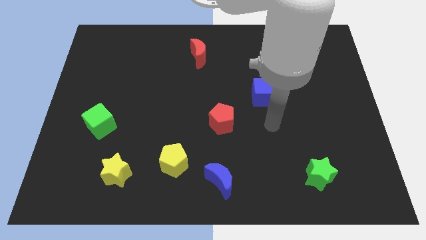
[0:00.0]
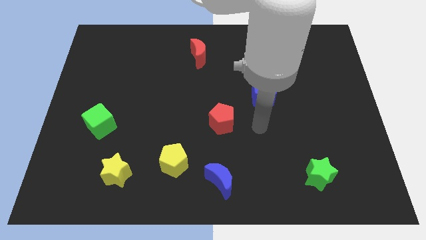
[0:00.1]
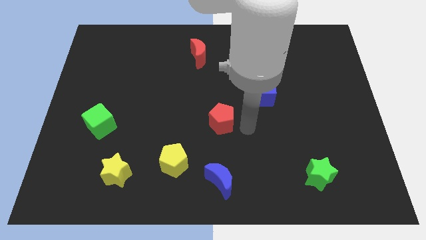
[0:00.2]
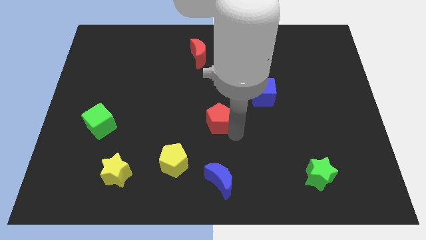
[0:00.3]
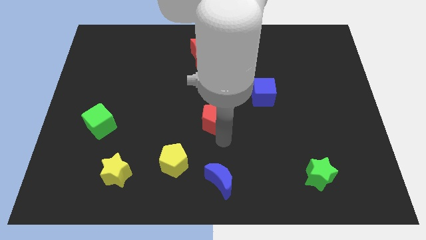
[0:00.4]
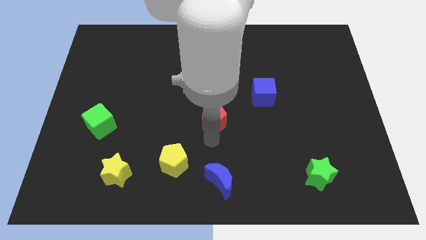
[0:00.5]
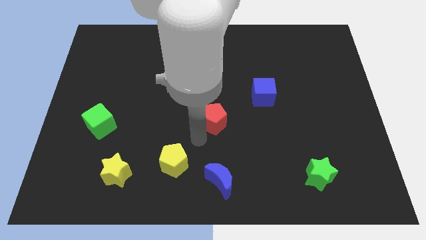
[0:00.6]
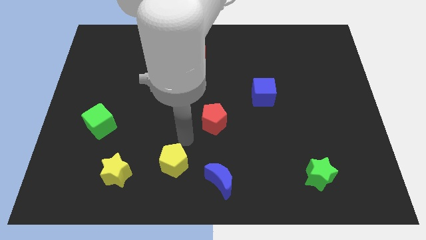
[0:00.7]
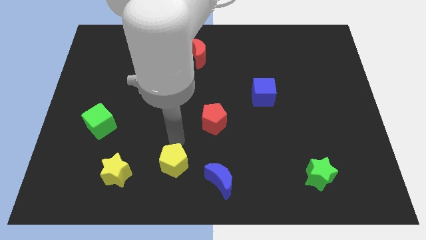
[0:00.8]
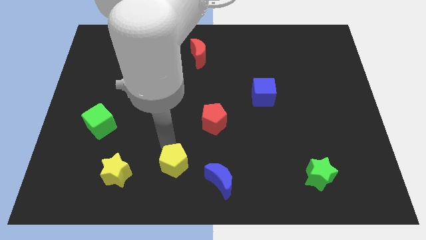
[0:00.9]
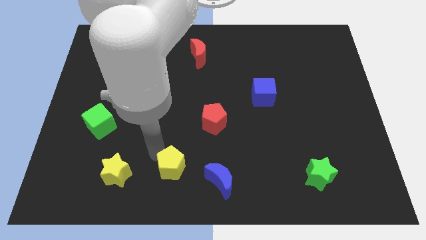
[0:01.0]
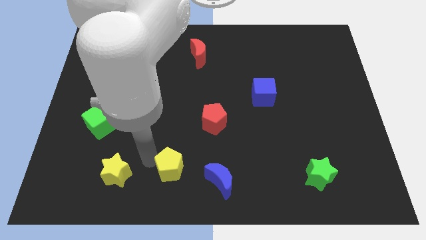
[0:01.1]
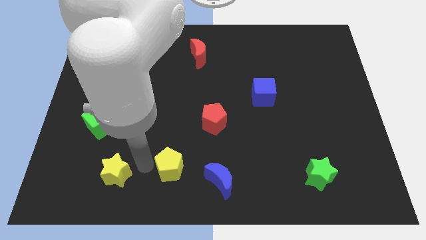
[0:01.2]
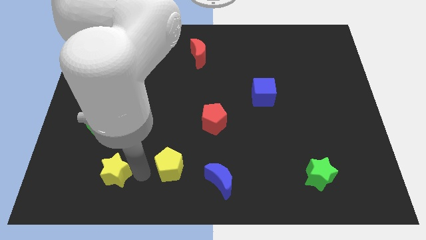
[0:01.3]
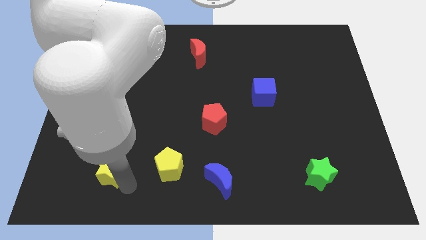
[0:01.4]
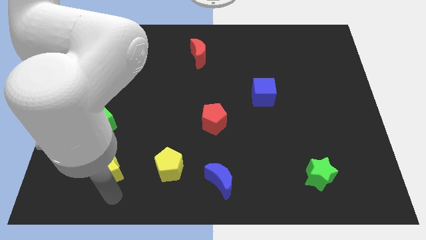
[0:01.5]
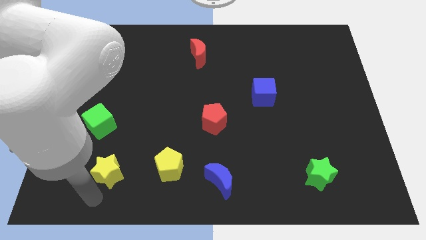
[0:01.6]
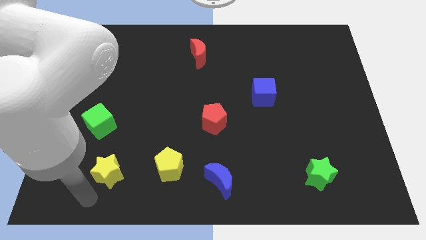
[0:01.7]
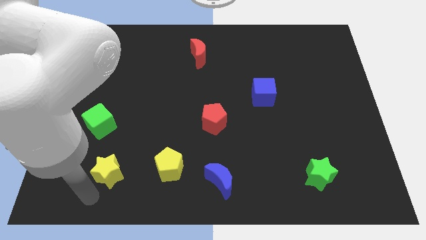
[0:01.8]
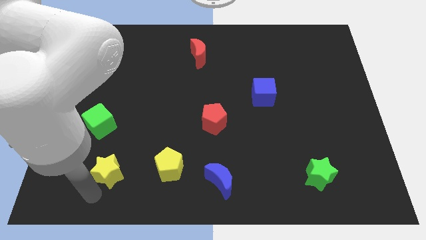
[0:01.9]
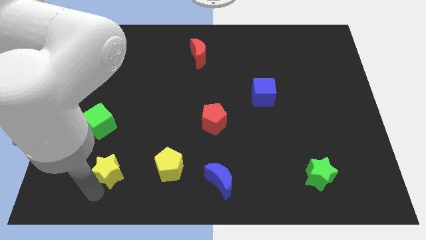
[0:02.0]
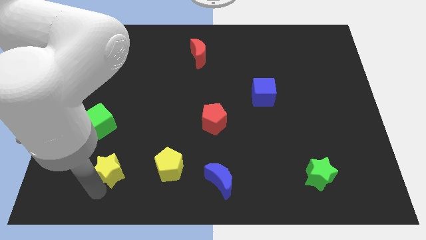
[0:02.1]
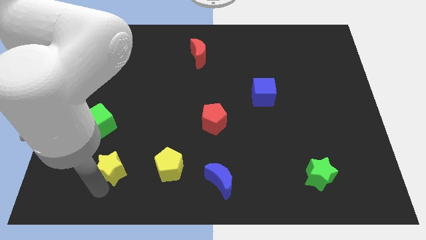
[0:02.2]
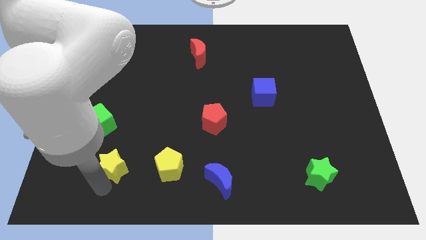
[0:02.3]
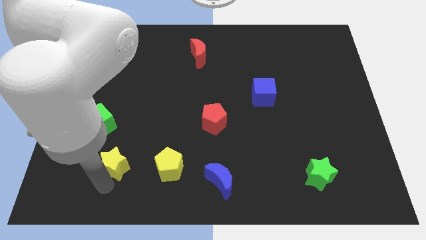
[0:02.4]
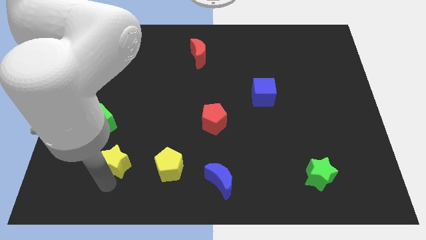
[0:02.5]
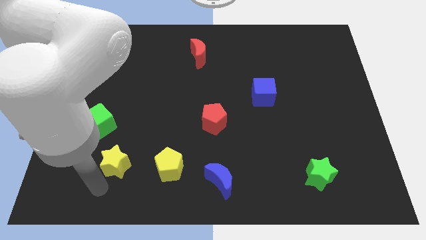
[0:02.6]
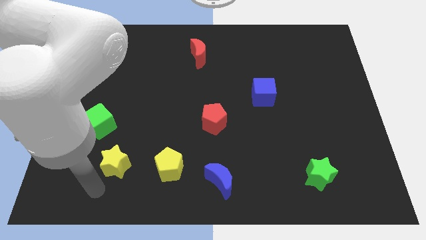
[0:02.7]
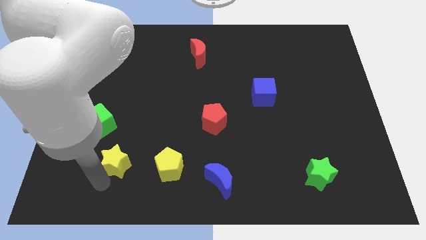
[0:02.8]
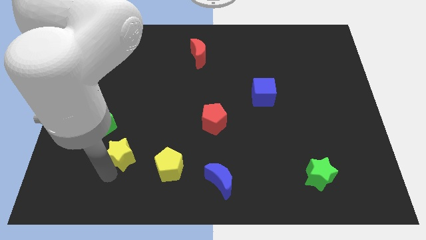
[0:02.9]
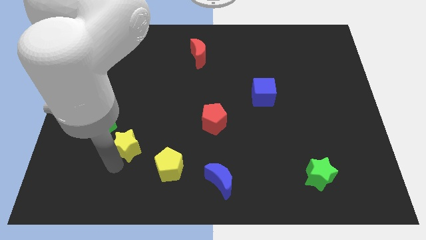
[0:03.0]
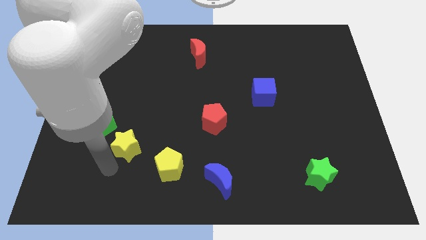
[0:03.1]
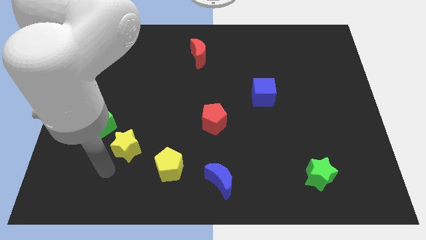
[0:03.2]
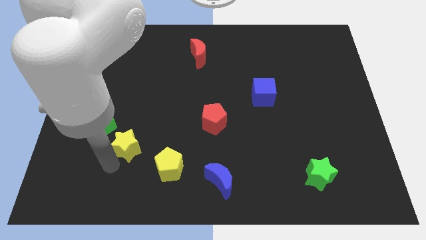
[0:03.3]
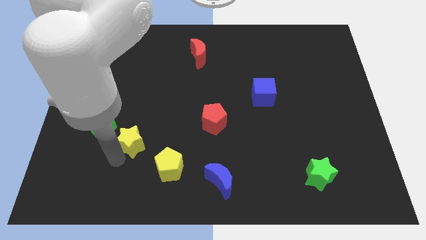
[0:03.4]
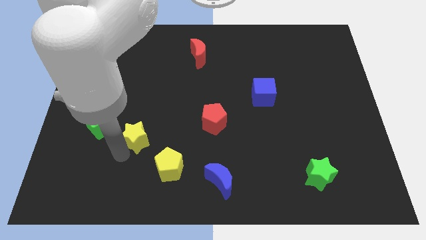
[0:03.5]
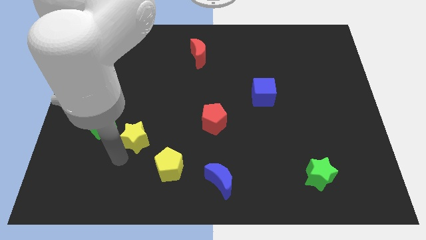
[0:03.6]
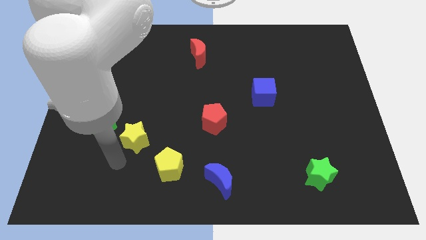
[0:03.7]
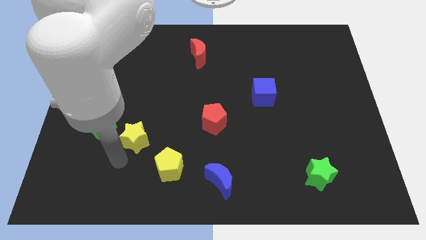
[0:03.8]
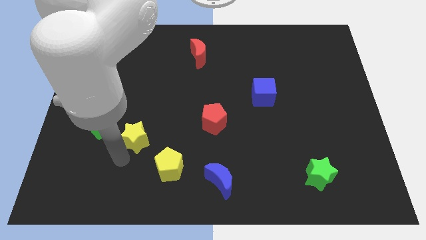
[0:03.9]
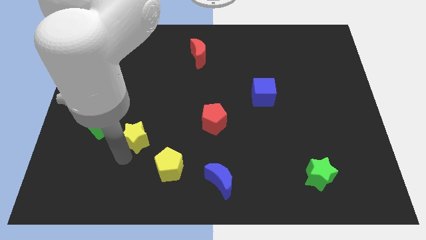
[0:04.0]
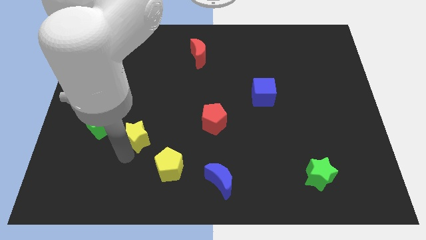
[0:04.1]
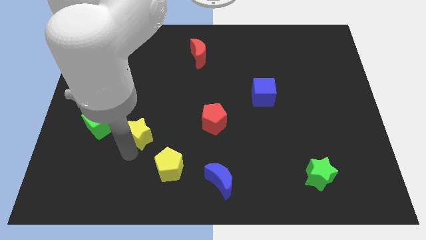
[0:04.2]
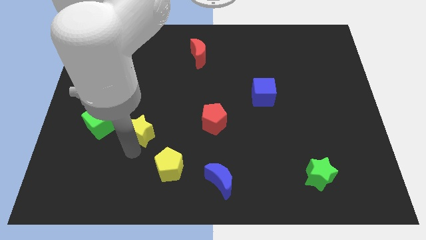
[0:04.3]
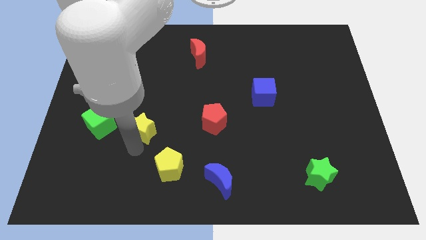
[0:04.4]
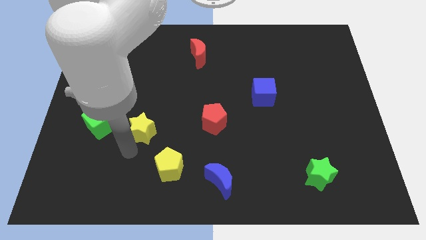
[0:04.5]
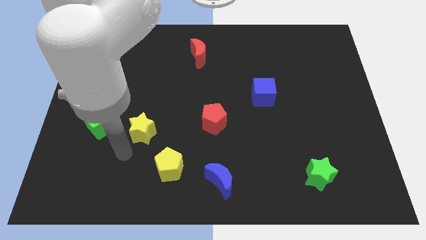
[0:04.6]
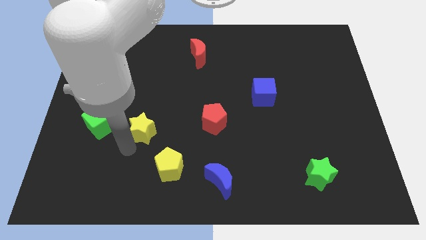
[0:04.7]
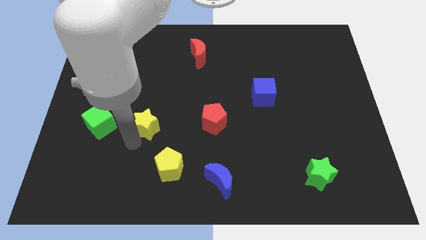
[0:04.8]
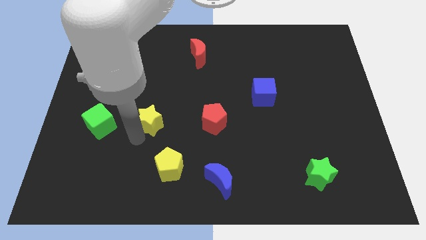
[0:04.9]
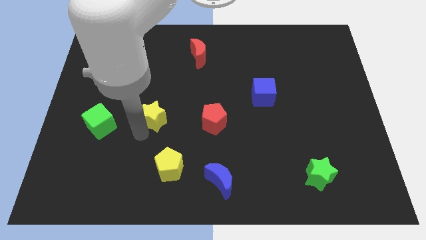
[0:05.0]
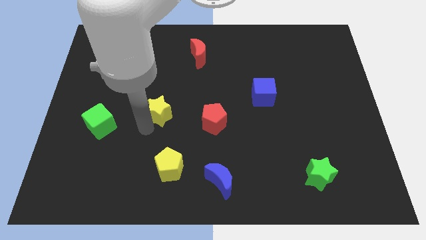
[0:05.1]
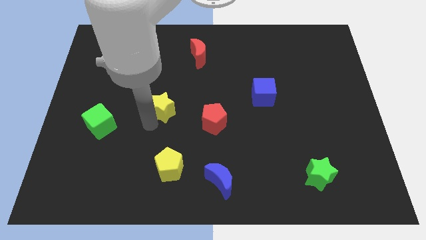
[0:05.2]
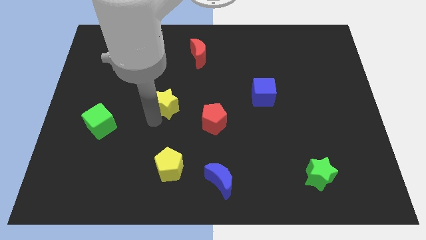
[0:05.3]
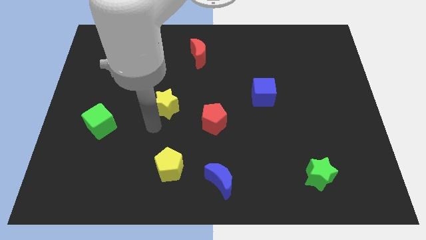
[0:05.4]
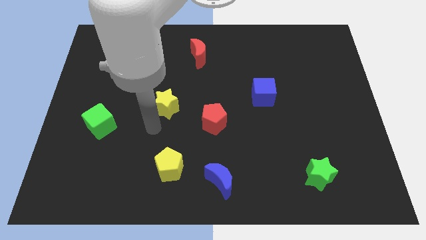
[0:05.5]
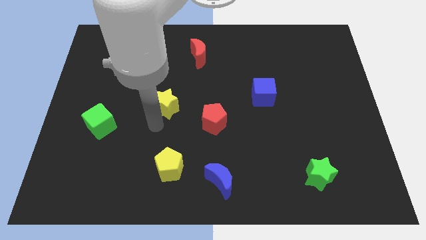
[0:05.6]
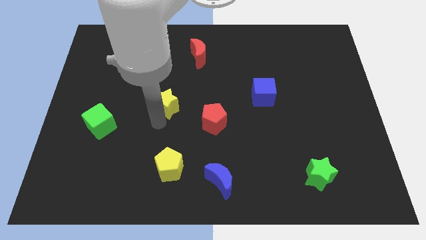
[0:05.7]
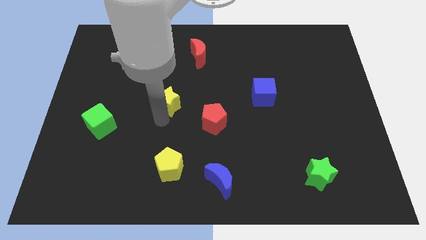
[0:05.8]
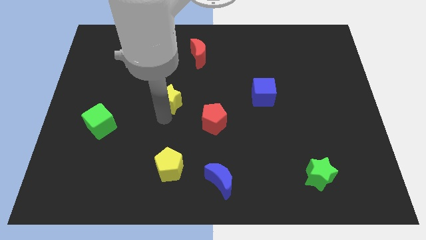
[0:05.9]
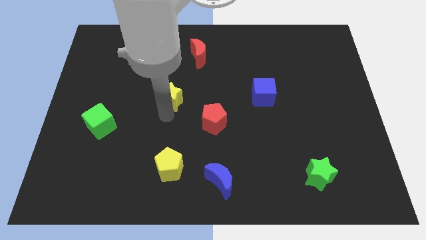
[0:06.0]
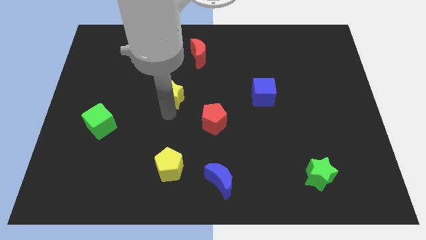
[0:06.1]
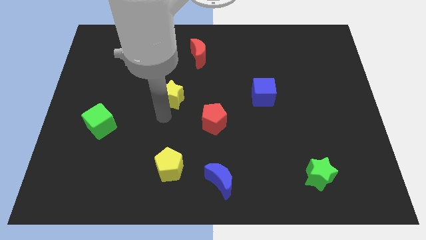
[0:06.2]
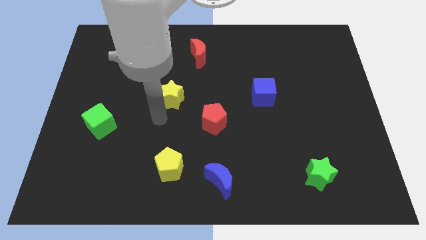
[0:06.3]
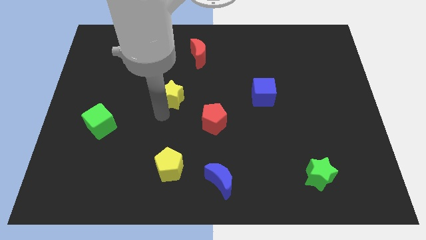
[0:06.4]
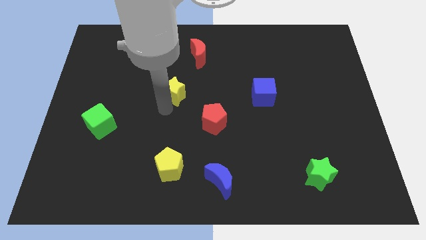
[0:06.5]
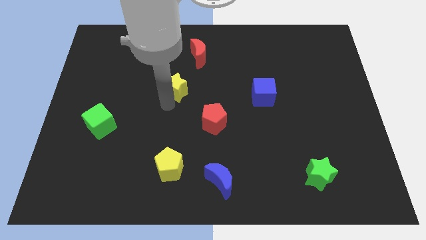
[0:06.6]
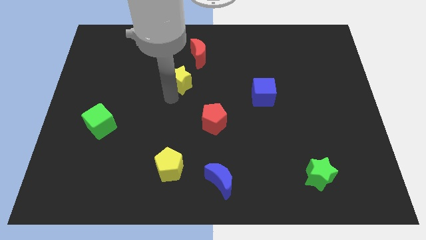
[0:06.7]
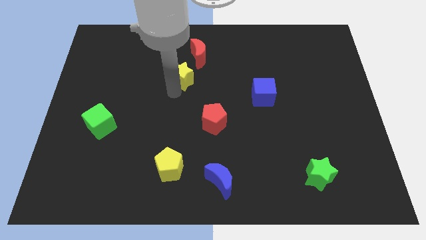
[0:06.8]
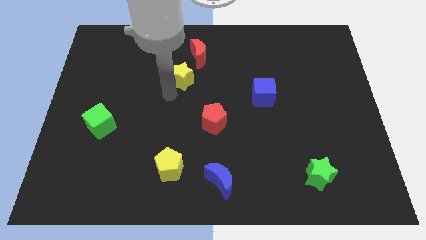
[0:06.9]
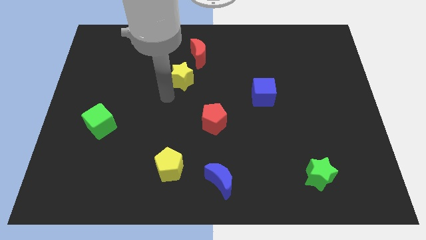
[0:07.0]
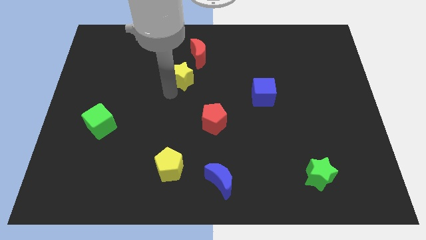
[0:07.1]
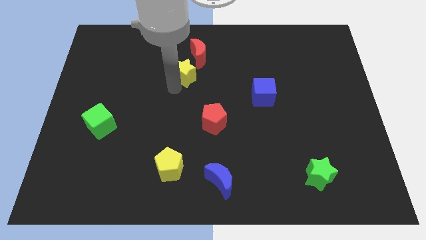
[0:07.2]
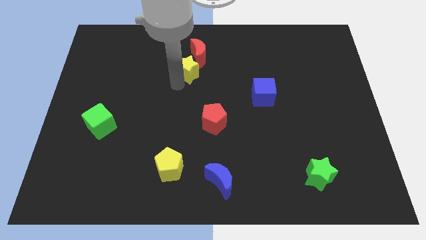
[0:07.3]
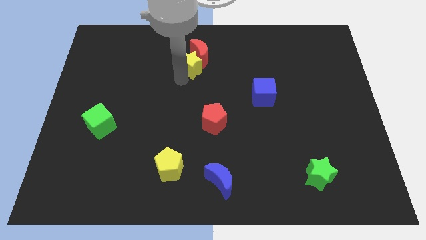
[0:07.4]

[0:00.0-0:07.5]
move the yellow star close to the red moon

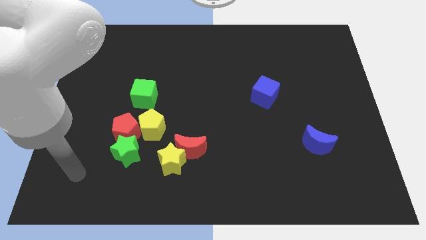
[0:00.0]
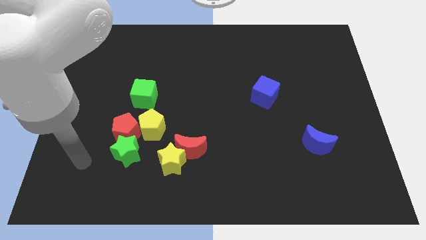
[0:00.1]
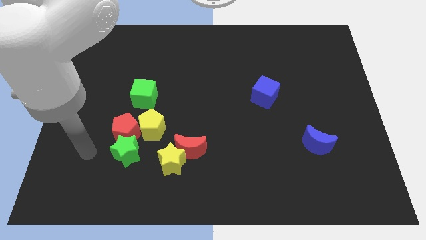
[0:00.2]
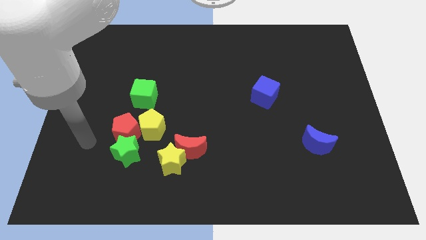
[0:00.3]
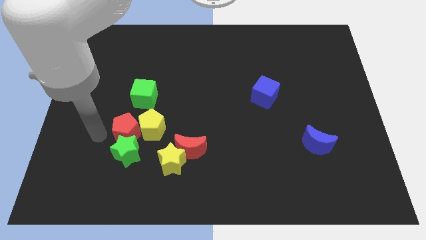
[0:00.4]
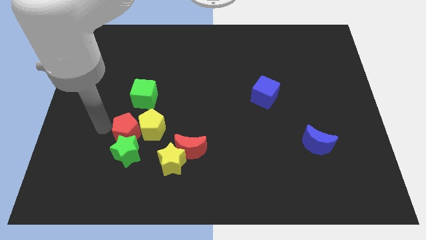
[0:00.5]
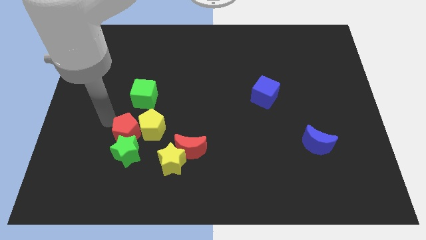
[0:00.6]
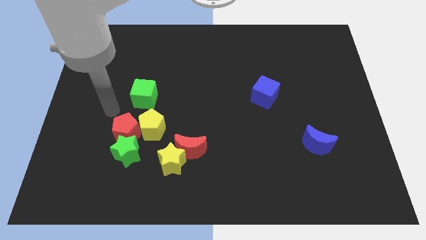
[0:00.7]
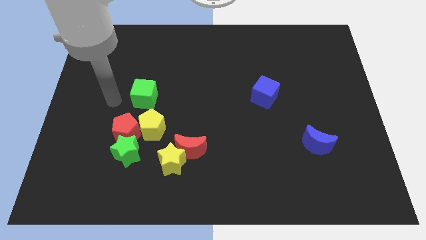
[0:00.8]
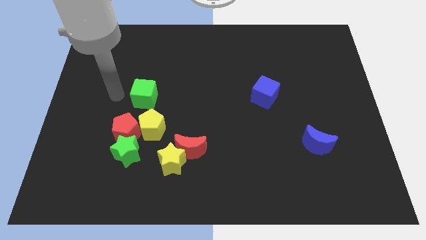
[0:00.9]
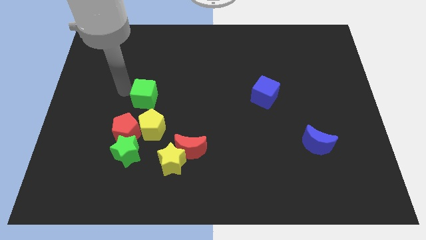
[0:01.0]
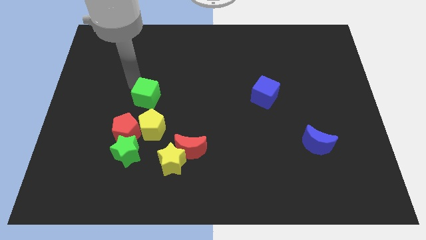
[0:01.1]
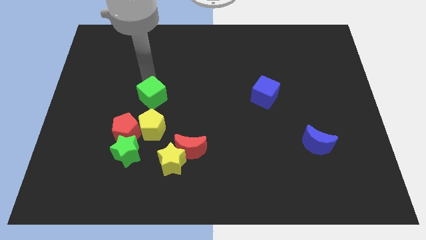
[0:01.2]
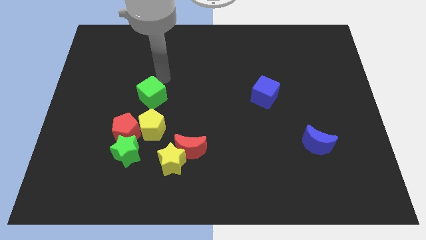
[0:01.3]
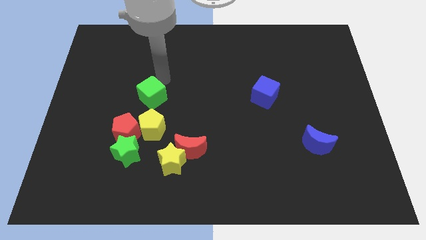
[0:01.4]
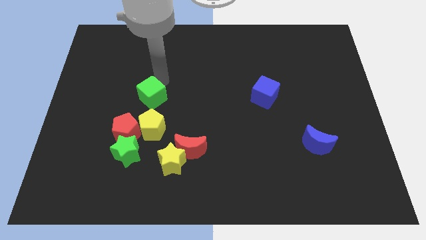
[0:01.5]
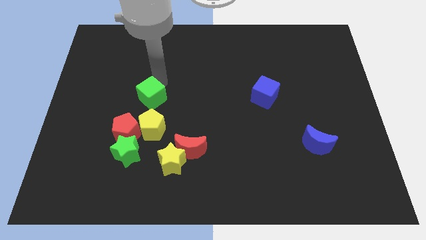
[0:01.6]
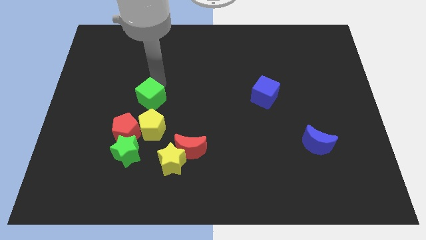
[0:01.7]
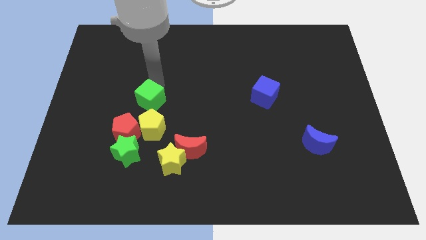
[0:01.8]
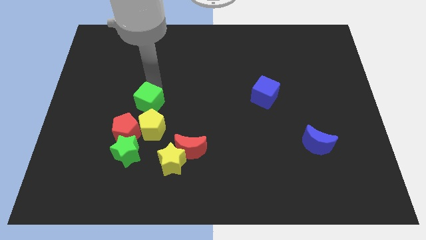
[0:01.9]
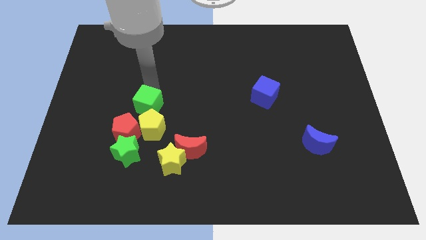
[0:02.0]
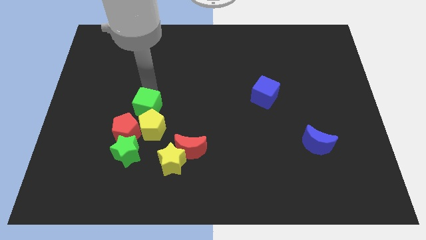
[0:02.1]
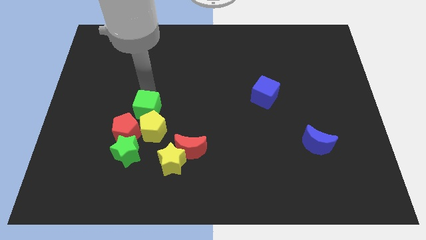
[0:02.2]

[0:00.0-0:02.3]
slide the green cube towards the yellow pentagon
